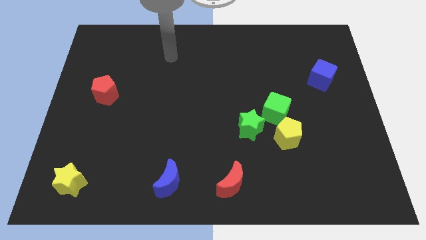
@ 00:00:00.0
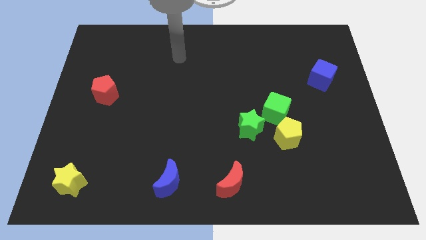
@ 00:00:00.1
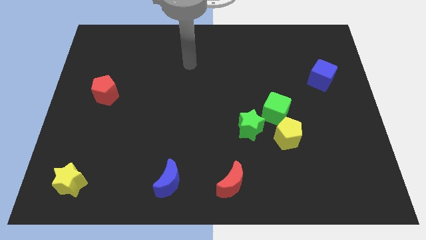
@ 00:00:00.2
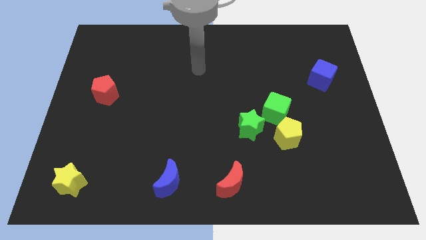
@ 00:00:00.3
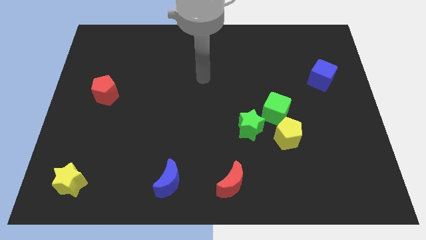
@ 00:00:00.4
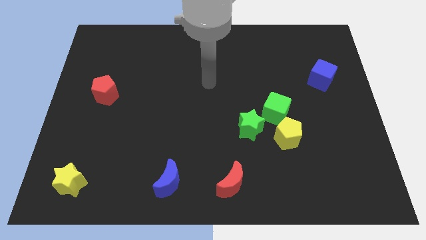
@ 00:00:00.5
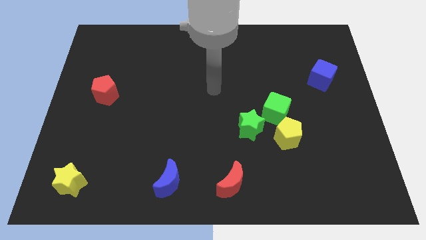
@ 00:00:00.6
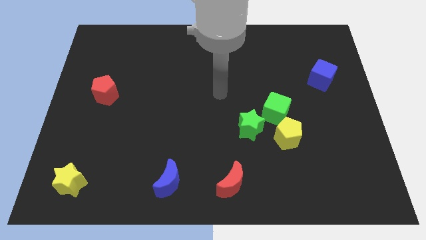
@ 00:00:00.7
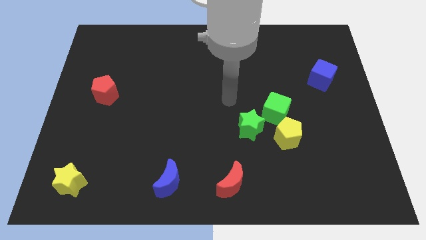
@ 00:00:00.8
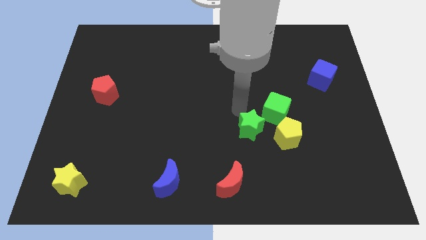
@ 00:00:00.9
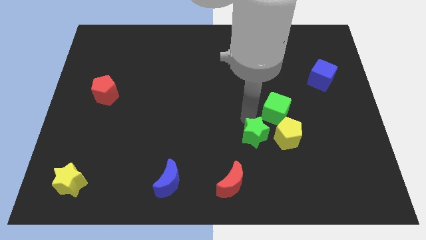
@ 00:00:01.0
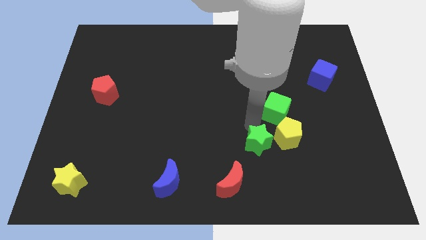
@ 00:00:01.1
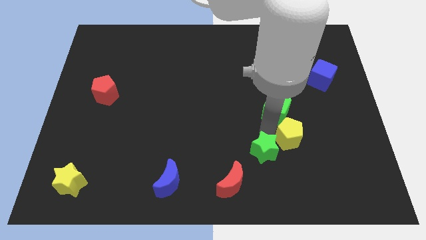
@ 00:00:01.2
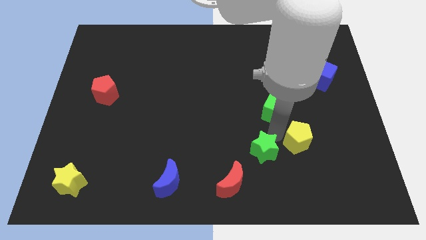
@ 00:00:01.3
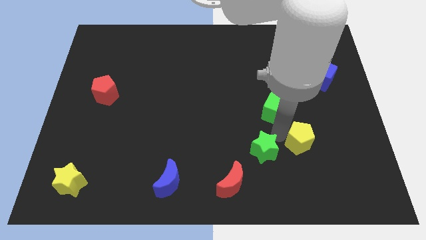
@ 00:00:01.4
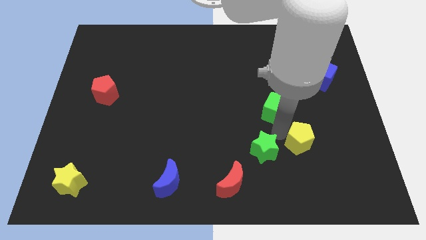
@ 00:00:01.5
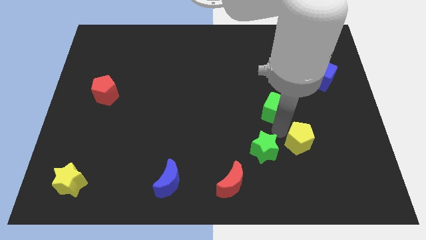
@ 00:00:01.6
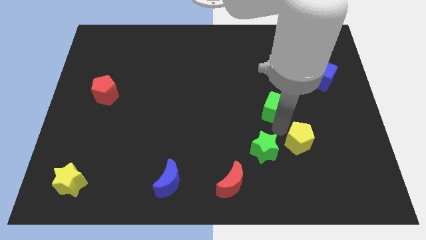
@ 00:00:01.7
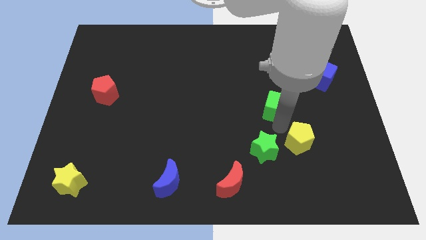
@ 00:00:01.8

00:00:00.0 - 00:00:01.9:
separate the green cube from the yellow pentagon and green star

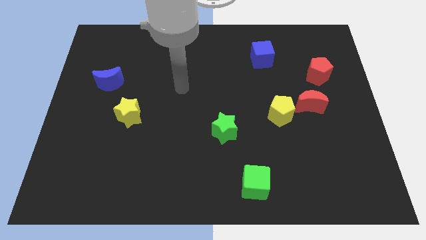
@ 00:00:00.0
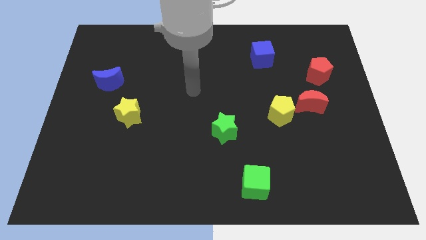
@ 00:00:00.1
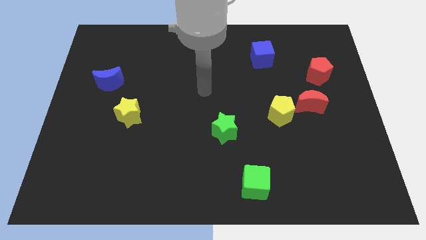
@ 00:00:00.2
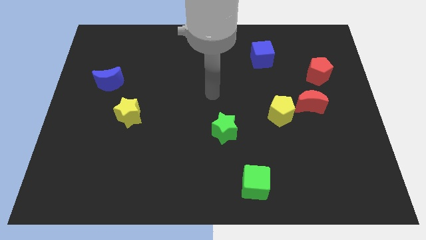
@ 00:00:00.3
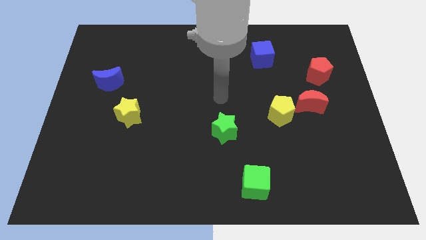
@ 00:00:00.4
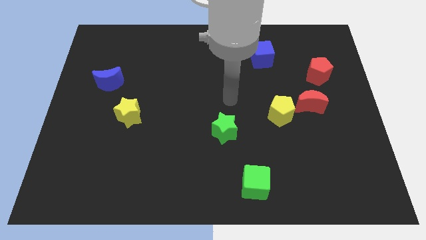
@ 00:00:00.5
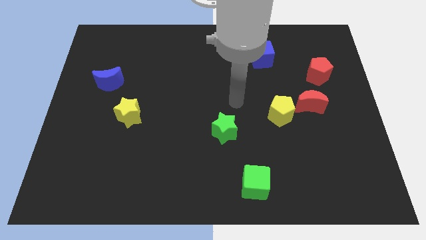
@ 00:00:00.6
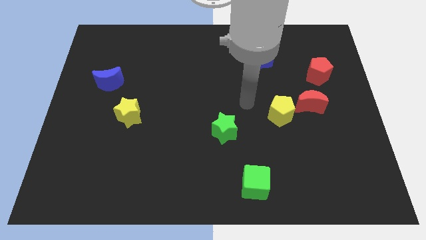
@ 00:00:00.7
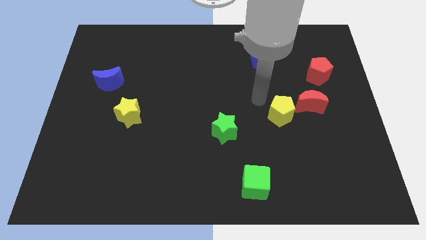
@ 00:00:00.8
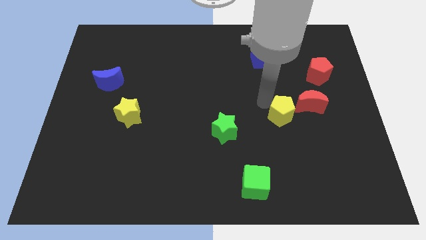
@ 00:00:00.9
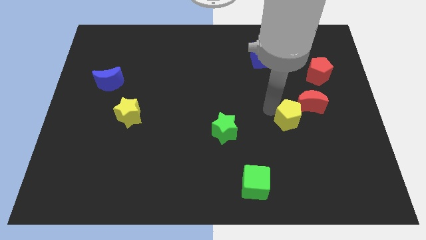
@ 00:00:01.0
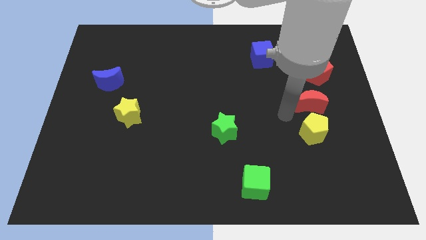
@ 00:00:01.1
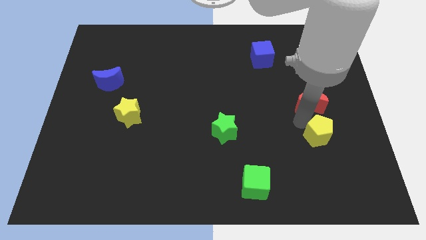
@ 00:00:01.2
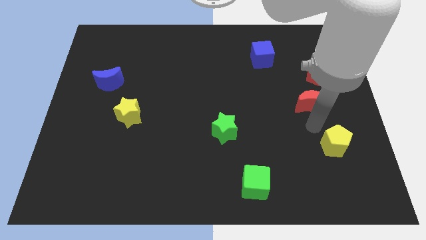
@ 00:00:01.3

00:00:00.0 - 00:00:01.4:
pull the red moon apart from the yellow pentagon

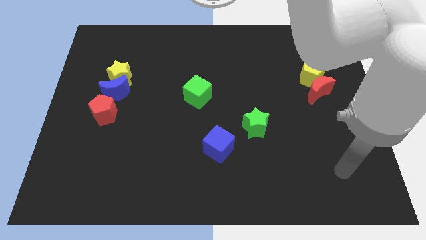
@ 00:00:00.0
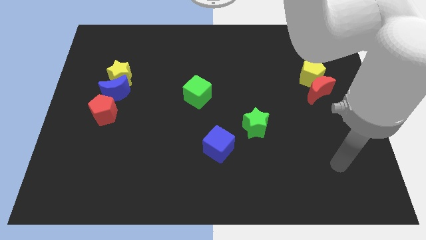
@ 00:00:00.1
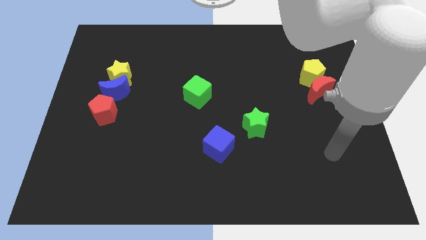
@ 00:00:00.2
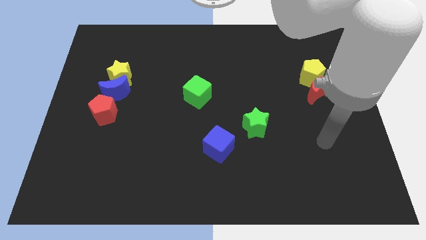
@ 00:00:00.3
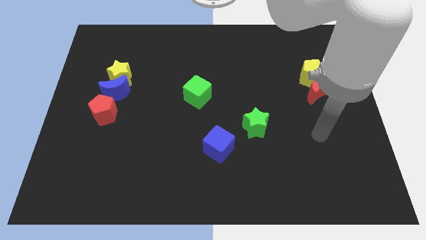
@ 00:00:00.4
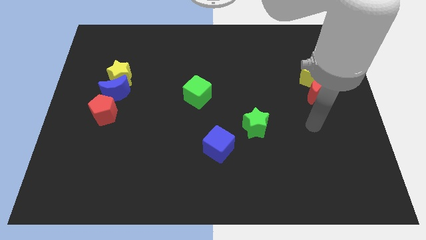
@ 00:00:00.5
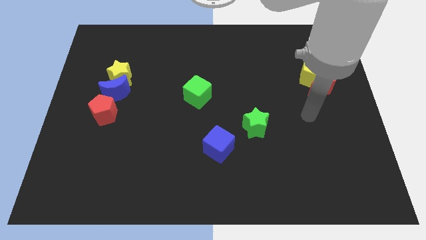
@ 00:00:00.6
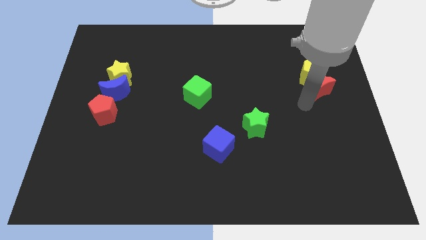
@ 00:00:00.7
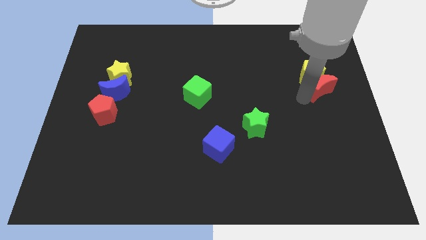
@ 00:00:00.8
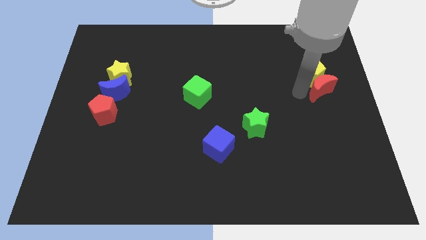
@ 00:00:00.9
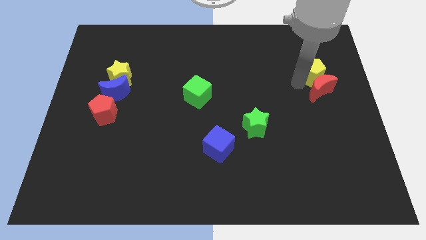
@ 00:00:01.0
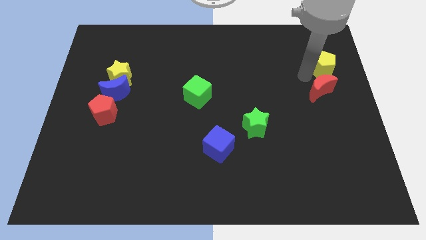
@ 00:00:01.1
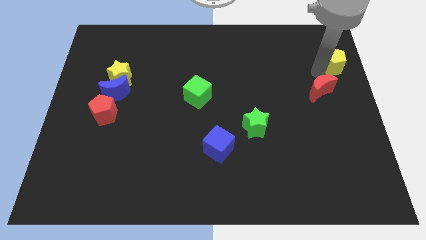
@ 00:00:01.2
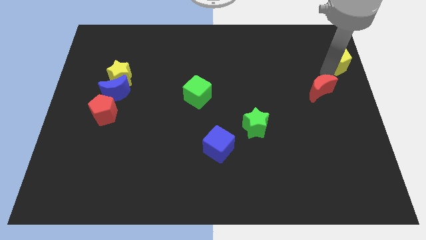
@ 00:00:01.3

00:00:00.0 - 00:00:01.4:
move the red moon away from the yellow pentagon

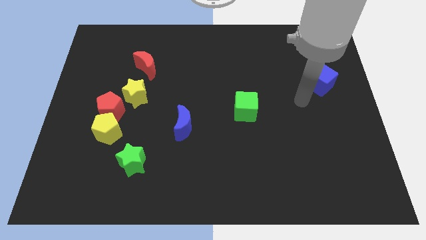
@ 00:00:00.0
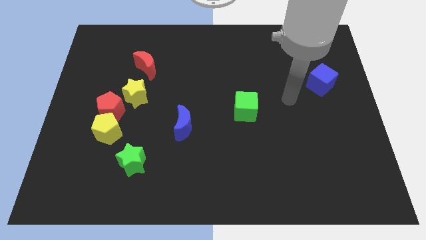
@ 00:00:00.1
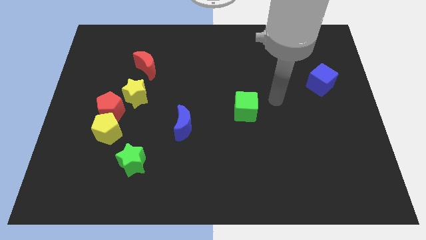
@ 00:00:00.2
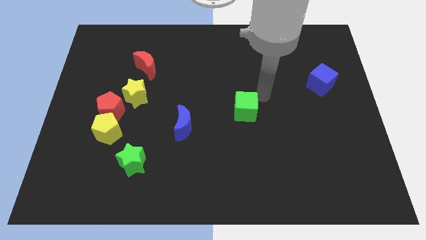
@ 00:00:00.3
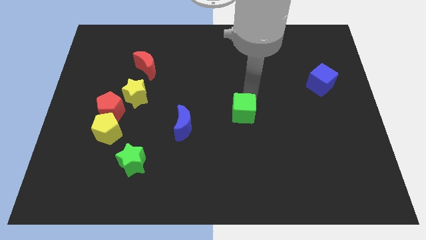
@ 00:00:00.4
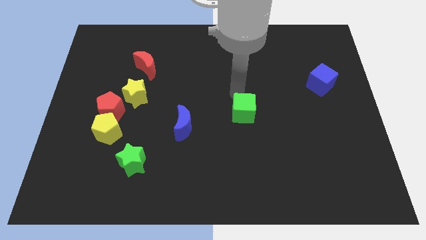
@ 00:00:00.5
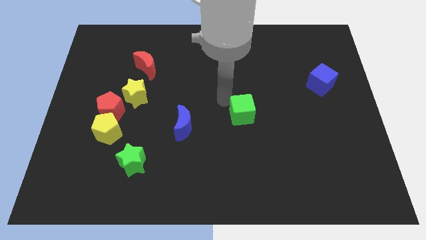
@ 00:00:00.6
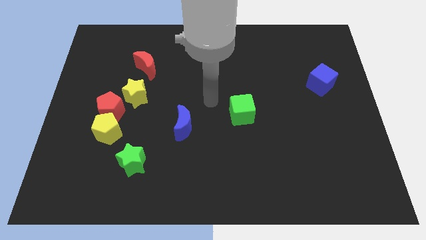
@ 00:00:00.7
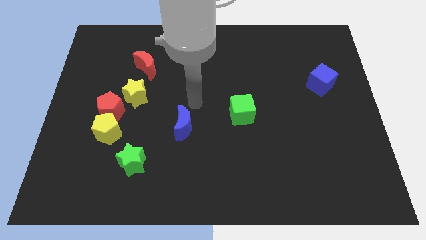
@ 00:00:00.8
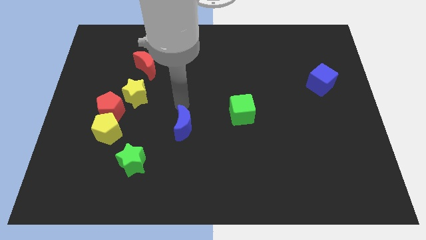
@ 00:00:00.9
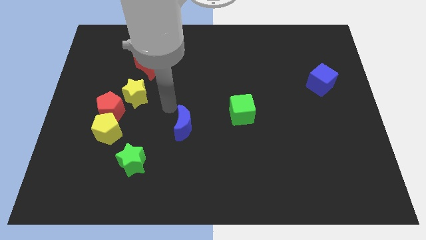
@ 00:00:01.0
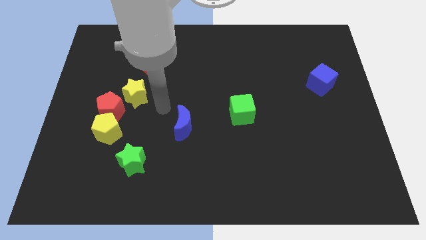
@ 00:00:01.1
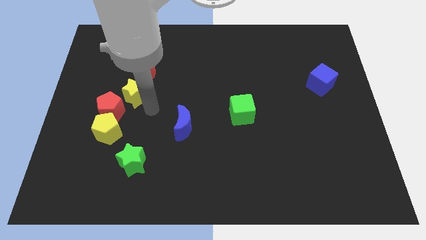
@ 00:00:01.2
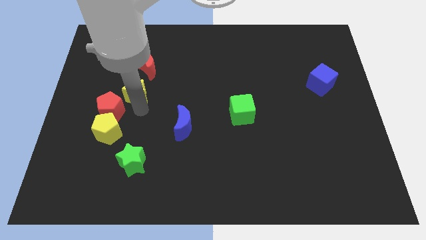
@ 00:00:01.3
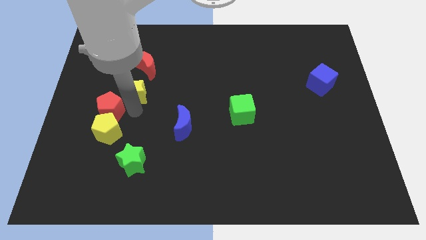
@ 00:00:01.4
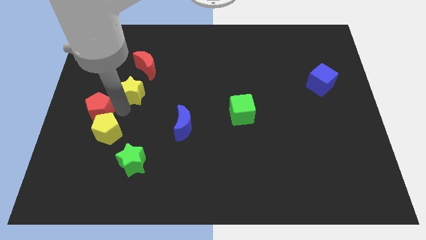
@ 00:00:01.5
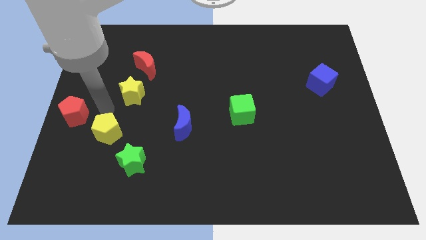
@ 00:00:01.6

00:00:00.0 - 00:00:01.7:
move the yellow pentagon away from the red pentagon

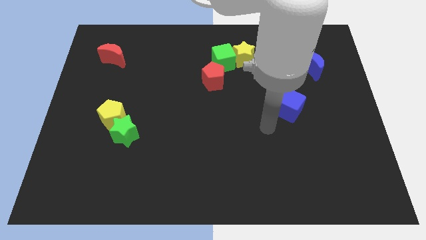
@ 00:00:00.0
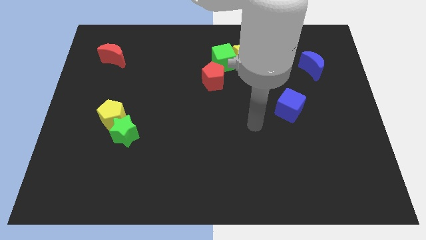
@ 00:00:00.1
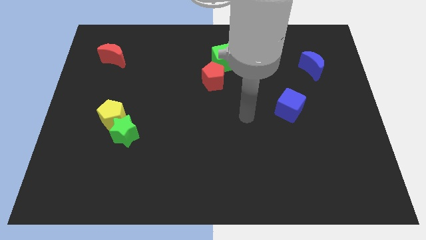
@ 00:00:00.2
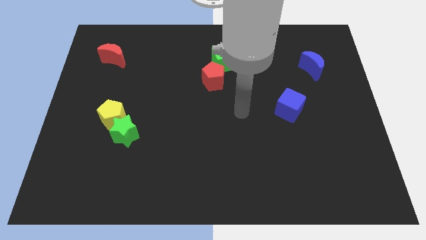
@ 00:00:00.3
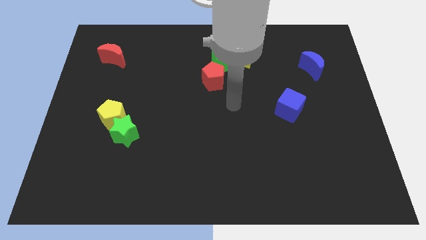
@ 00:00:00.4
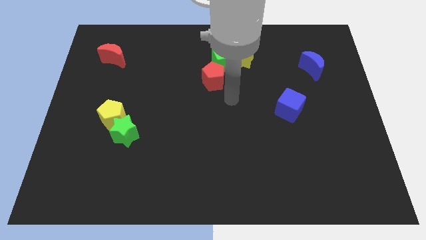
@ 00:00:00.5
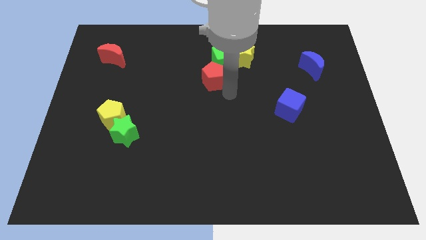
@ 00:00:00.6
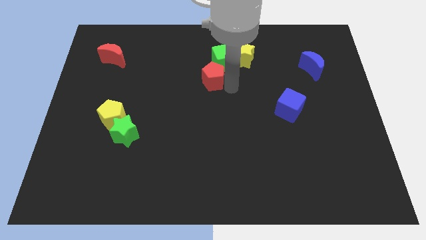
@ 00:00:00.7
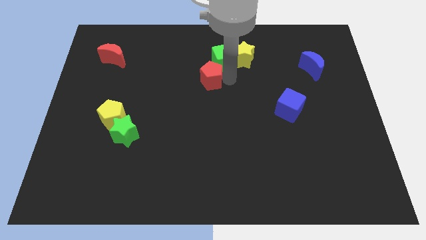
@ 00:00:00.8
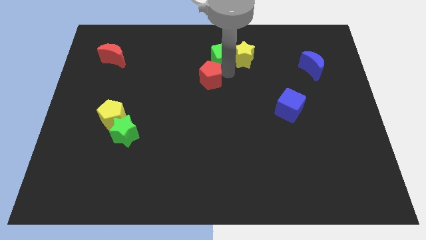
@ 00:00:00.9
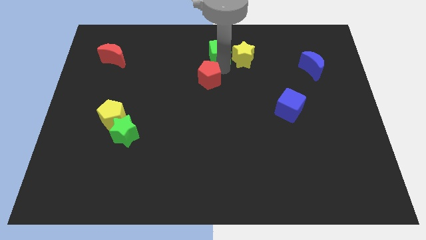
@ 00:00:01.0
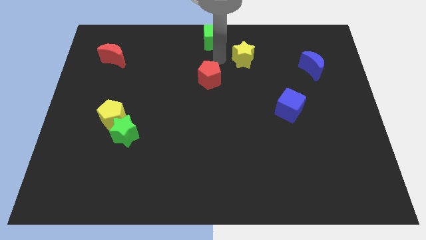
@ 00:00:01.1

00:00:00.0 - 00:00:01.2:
move the yellow star away from the green cube

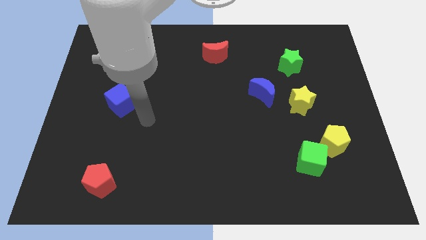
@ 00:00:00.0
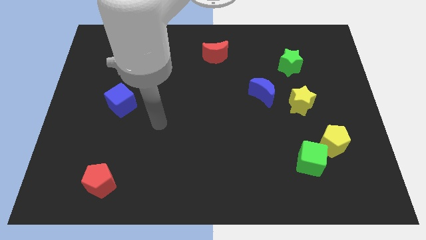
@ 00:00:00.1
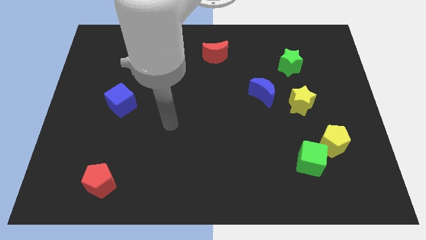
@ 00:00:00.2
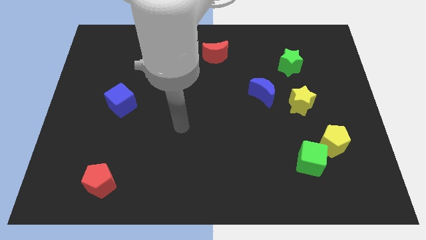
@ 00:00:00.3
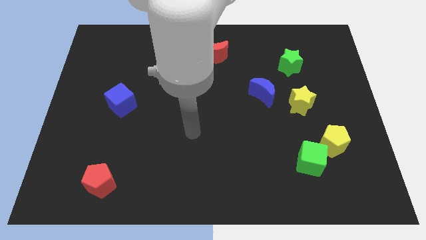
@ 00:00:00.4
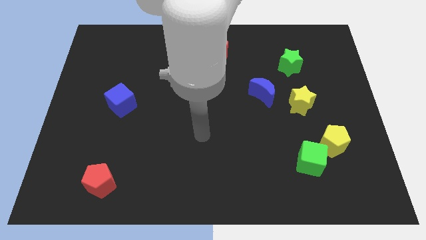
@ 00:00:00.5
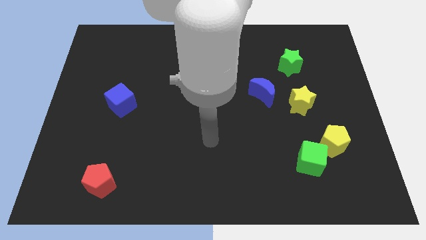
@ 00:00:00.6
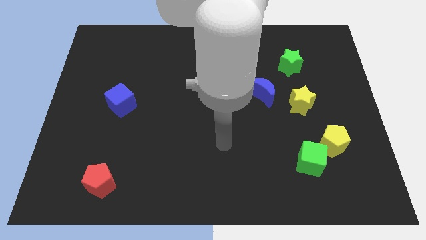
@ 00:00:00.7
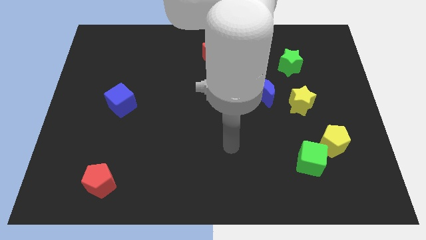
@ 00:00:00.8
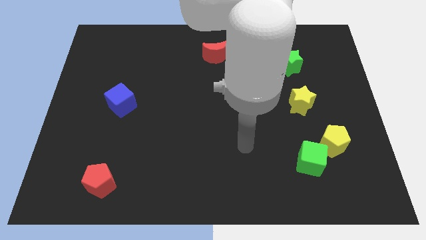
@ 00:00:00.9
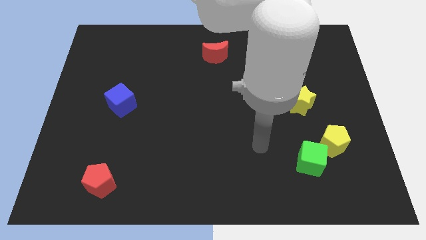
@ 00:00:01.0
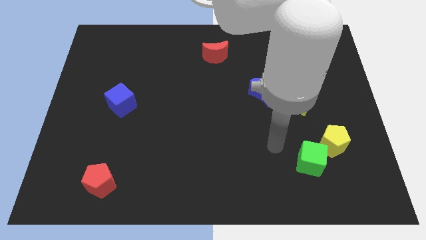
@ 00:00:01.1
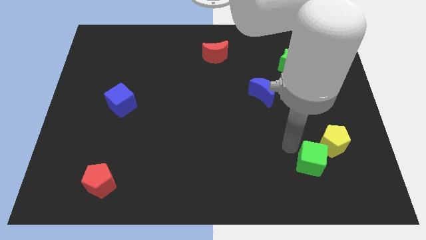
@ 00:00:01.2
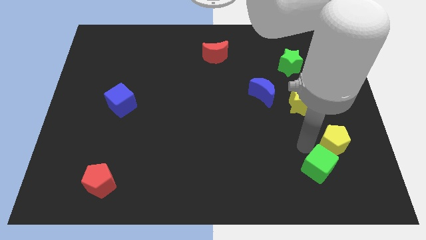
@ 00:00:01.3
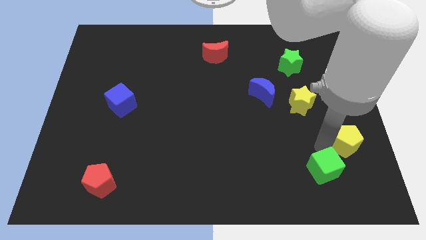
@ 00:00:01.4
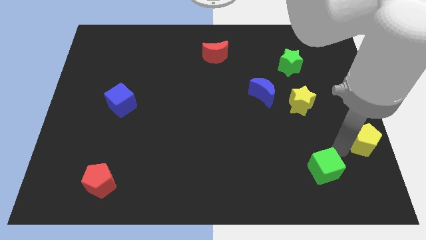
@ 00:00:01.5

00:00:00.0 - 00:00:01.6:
move the green cube away from the yellow pentagon
